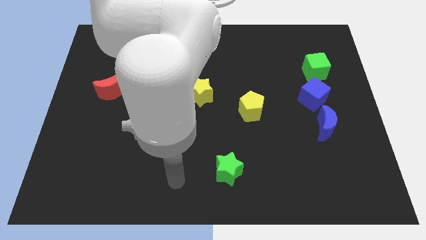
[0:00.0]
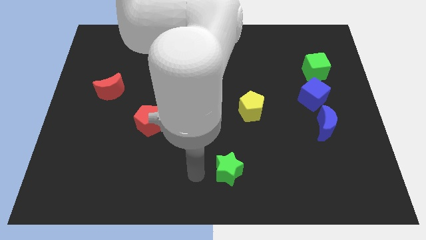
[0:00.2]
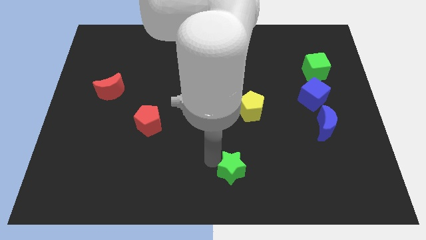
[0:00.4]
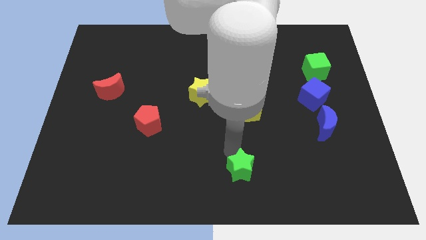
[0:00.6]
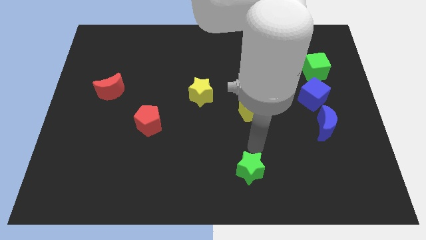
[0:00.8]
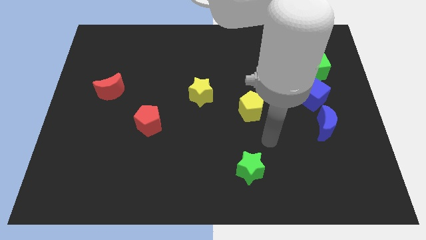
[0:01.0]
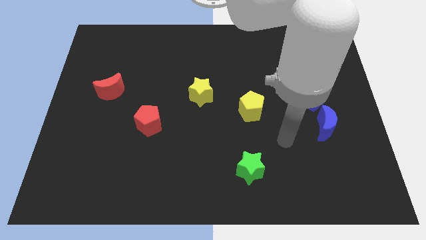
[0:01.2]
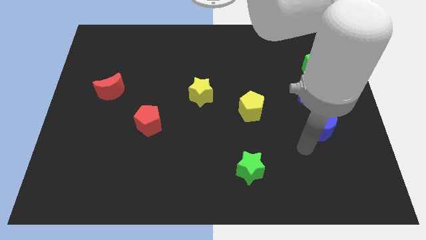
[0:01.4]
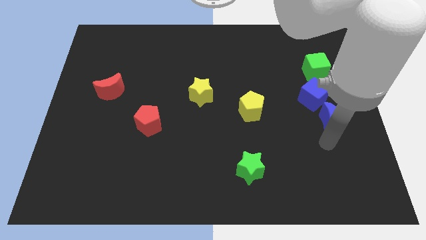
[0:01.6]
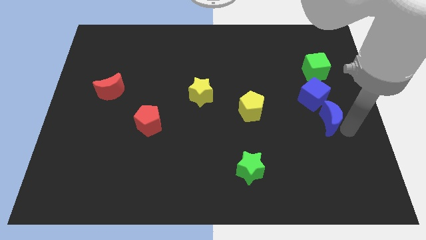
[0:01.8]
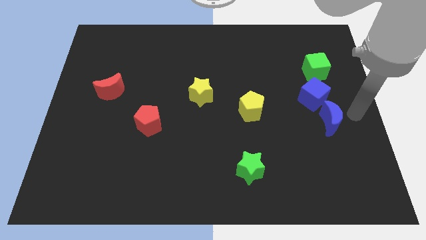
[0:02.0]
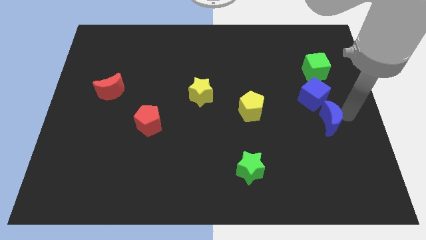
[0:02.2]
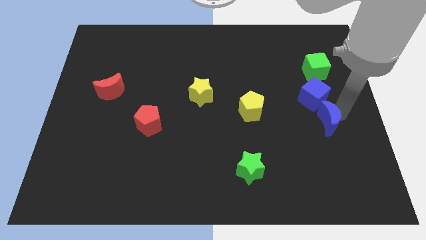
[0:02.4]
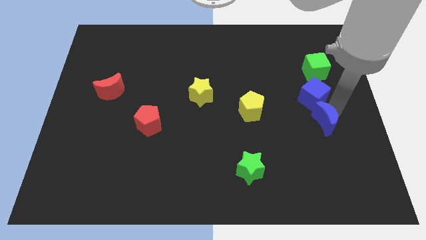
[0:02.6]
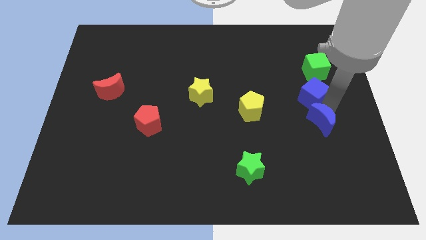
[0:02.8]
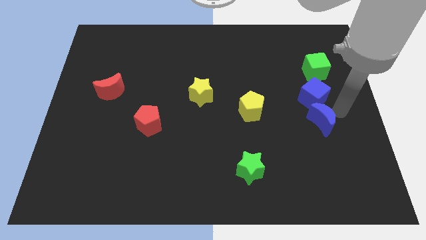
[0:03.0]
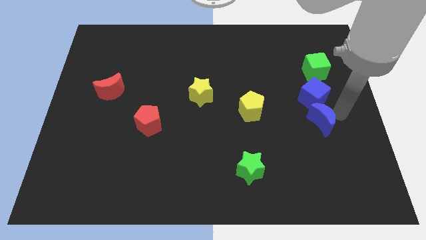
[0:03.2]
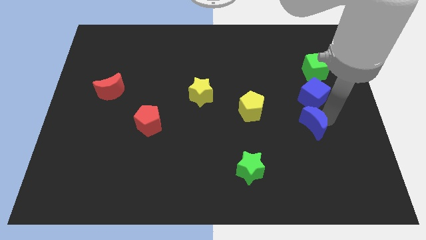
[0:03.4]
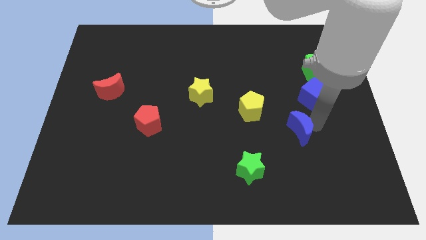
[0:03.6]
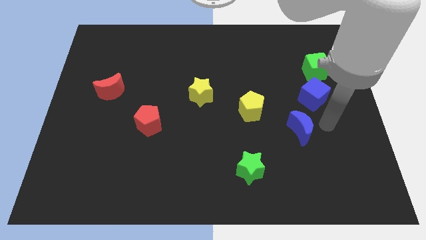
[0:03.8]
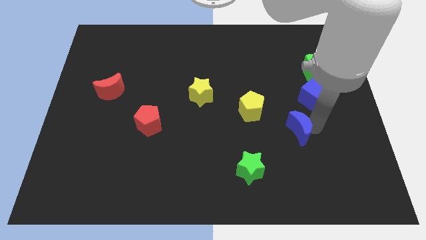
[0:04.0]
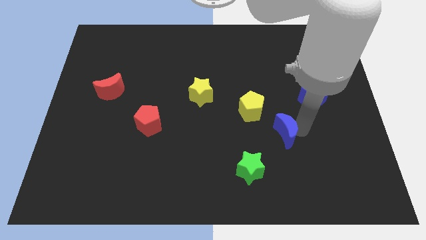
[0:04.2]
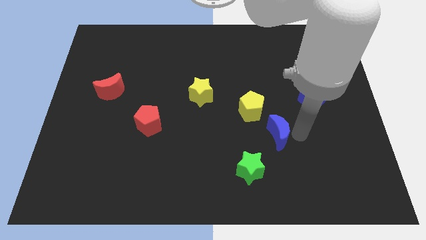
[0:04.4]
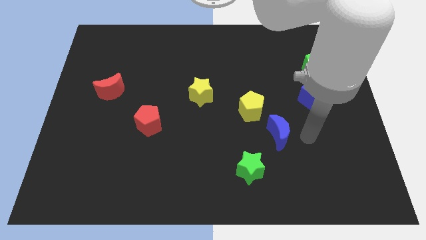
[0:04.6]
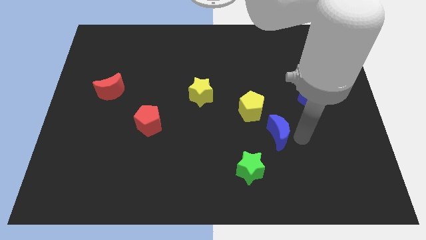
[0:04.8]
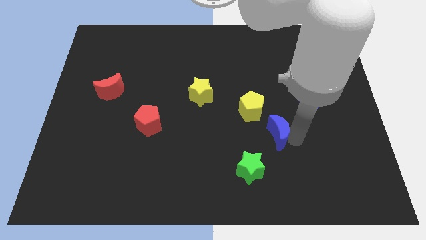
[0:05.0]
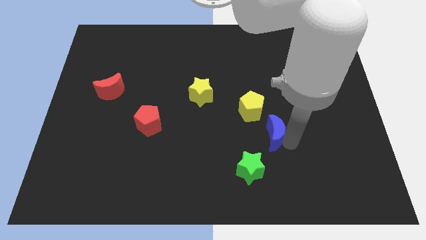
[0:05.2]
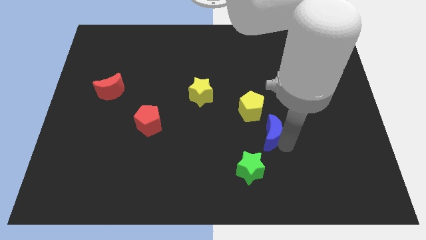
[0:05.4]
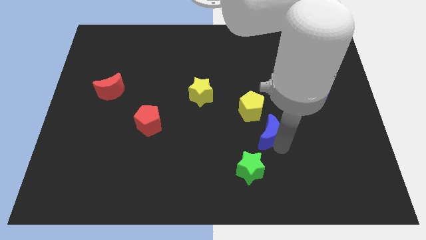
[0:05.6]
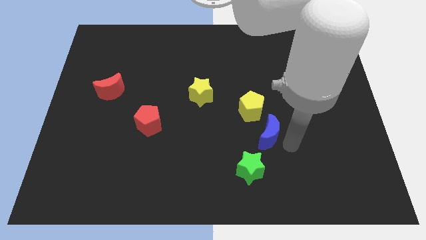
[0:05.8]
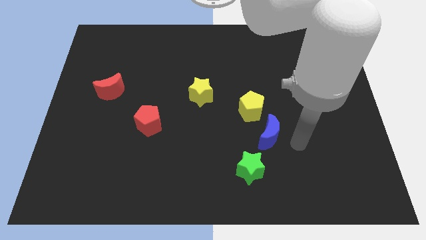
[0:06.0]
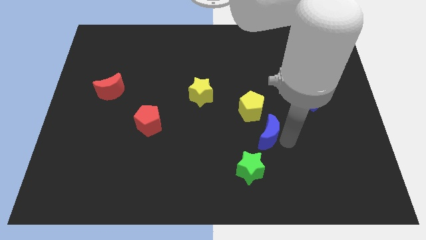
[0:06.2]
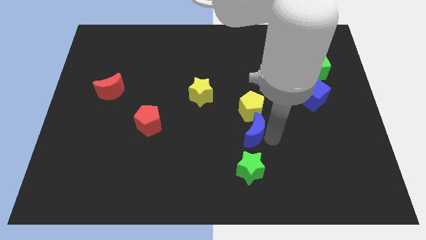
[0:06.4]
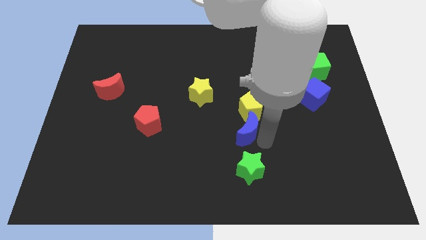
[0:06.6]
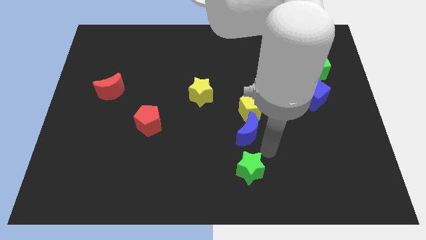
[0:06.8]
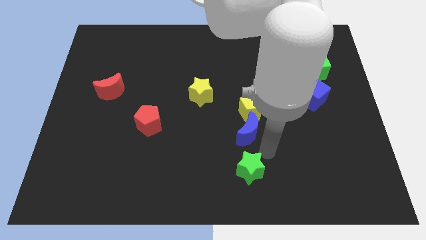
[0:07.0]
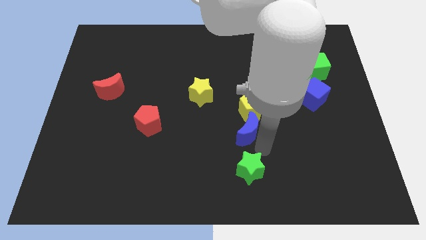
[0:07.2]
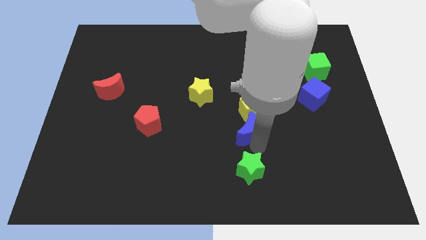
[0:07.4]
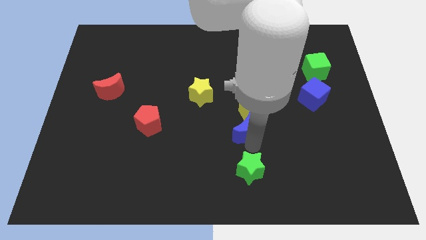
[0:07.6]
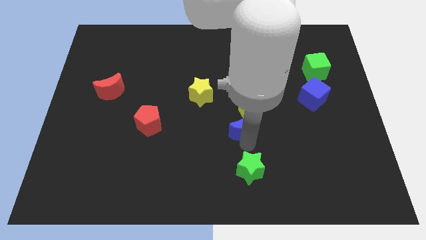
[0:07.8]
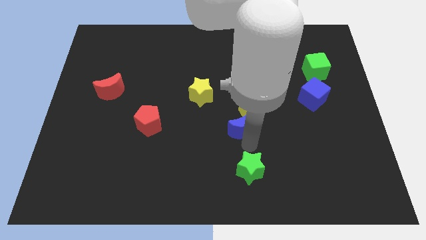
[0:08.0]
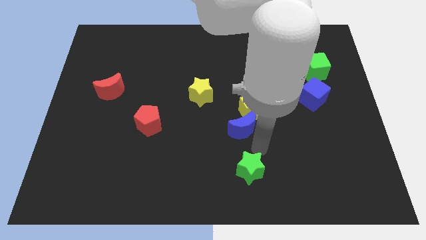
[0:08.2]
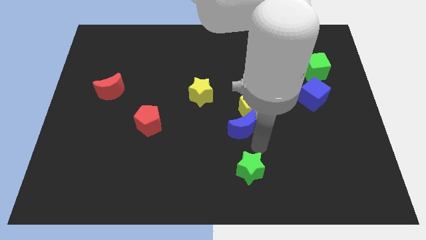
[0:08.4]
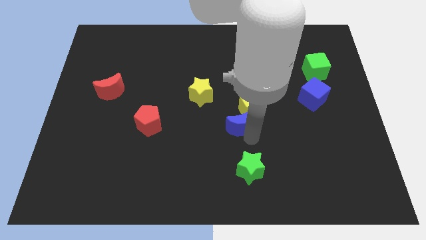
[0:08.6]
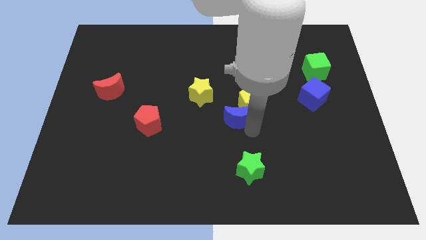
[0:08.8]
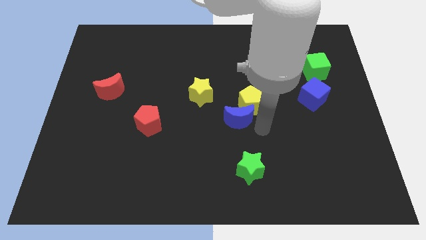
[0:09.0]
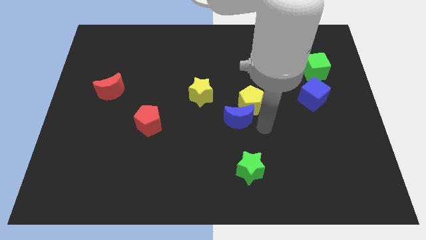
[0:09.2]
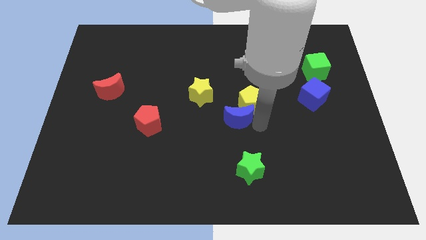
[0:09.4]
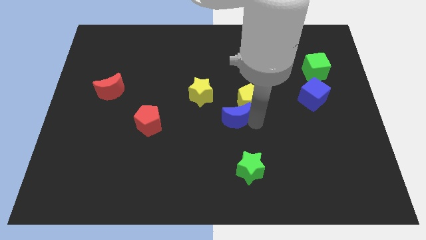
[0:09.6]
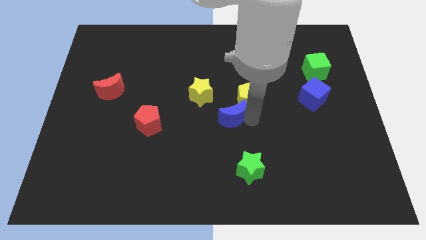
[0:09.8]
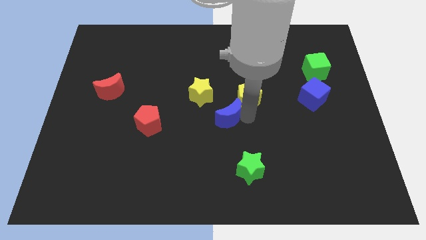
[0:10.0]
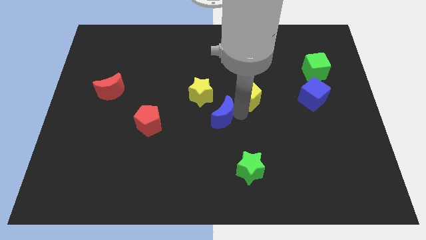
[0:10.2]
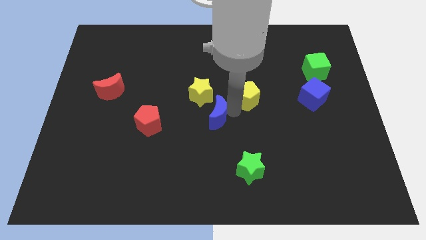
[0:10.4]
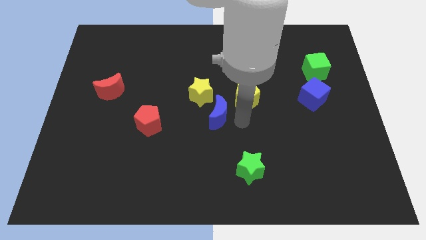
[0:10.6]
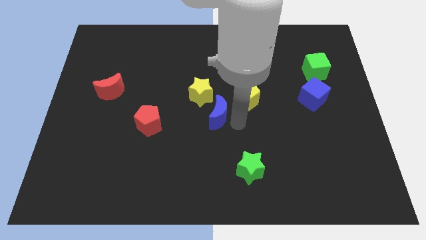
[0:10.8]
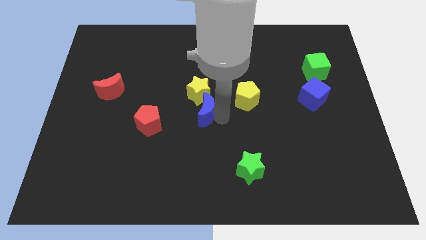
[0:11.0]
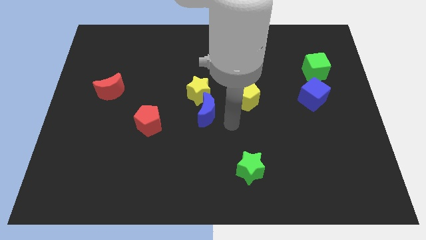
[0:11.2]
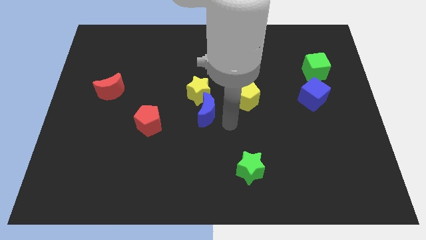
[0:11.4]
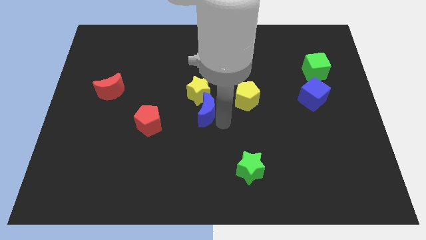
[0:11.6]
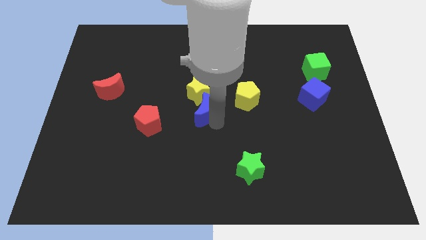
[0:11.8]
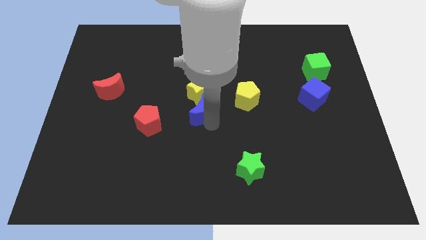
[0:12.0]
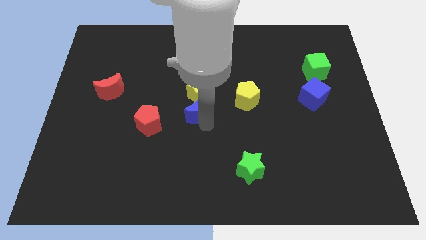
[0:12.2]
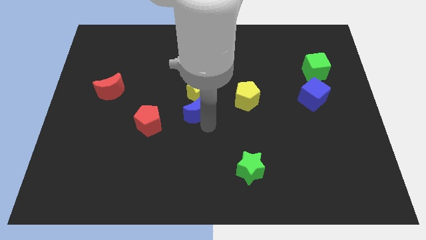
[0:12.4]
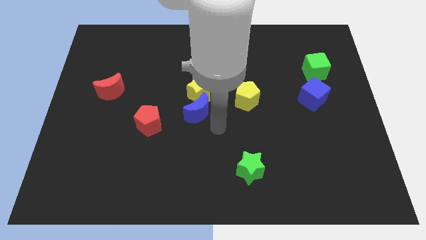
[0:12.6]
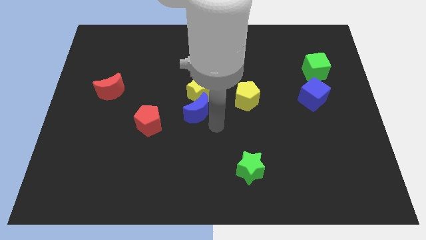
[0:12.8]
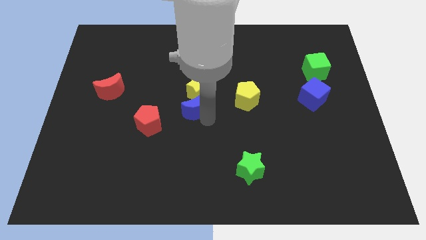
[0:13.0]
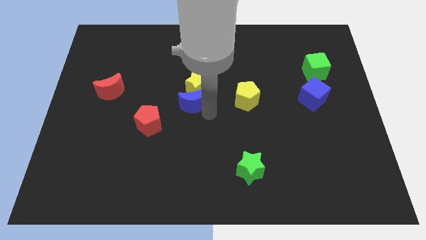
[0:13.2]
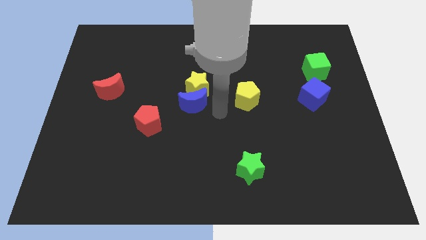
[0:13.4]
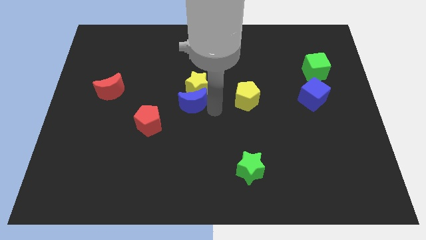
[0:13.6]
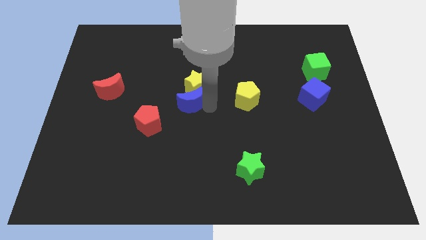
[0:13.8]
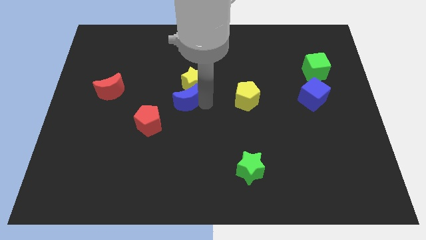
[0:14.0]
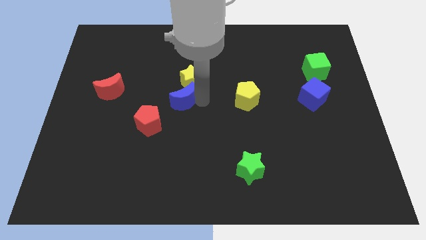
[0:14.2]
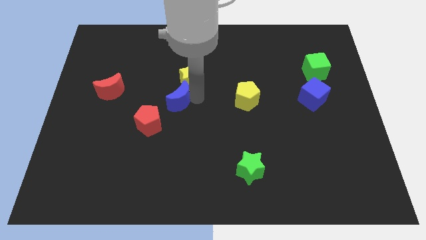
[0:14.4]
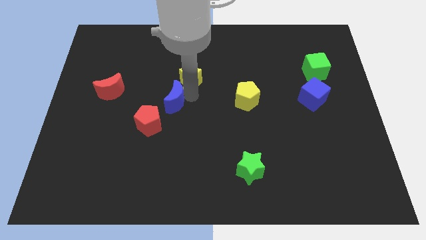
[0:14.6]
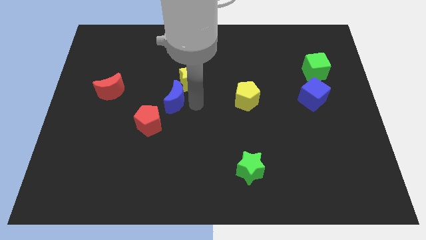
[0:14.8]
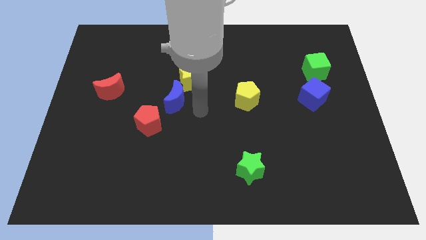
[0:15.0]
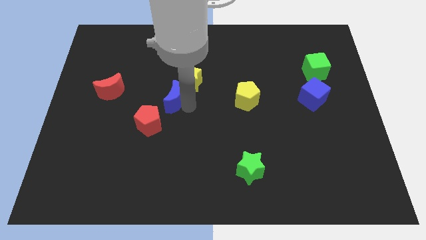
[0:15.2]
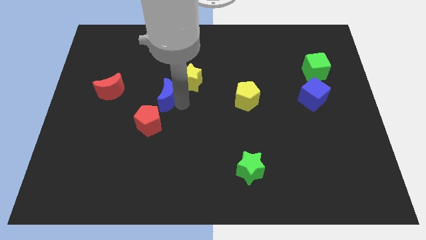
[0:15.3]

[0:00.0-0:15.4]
slide the blue moon right of the red moon
